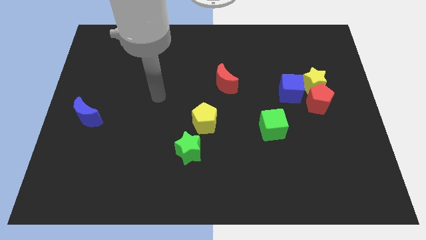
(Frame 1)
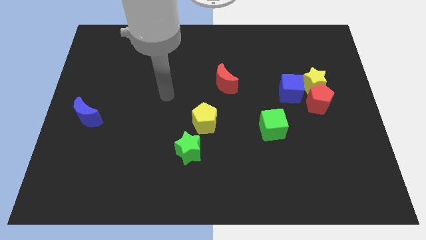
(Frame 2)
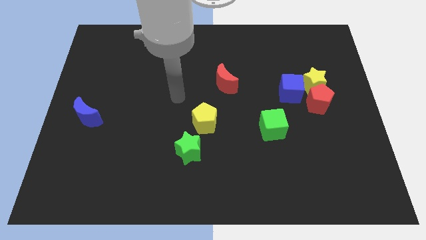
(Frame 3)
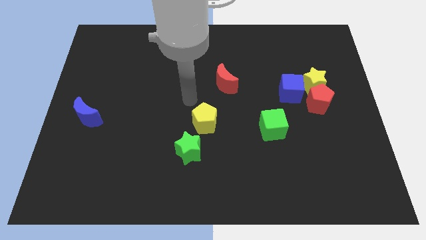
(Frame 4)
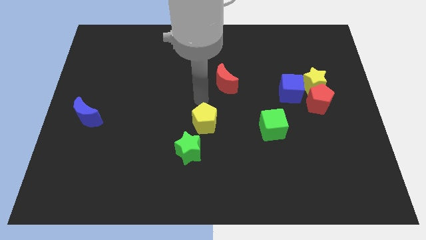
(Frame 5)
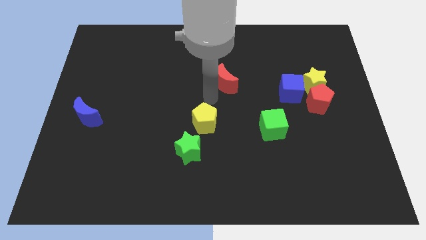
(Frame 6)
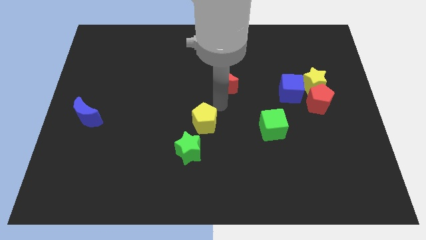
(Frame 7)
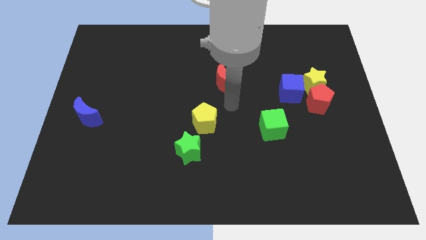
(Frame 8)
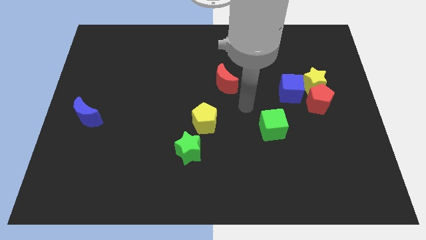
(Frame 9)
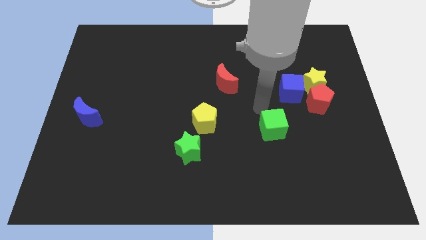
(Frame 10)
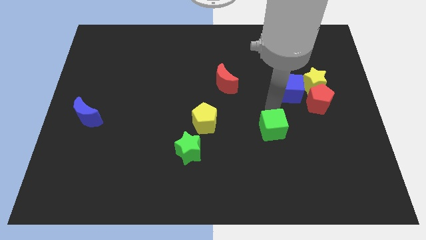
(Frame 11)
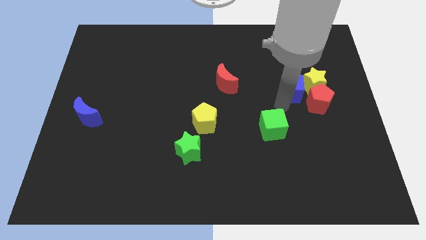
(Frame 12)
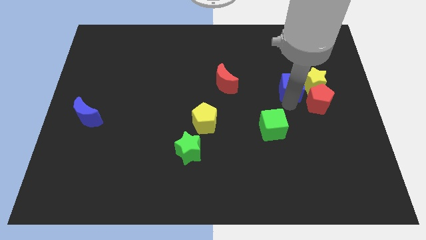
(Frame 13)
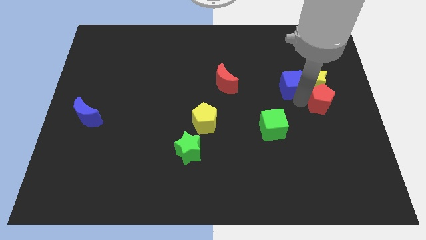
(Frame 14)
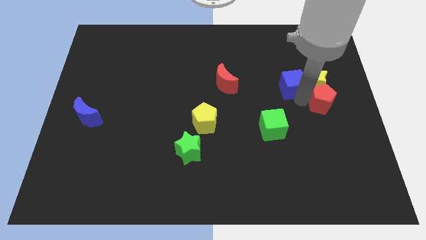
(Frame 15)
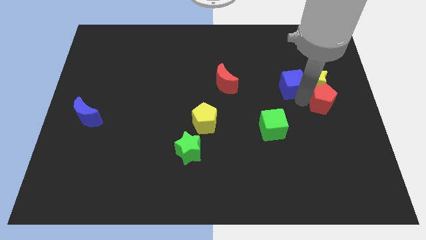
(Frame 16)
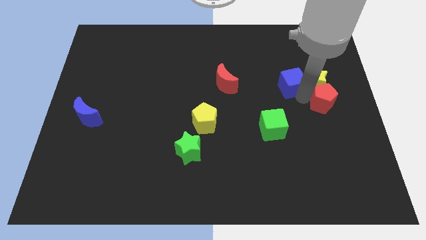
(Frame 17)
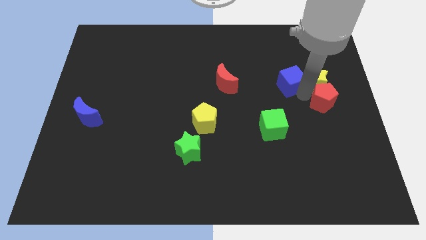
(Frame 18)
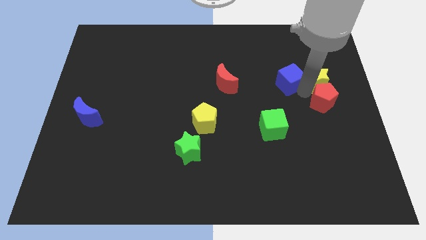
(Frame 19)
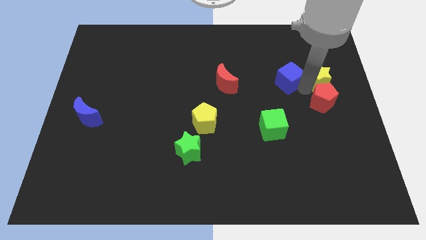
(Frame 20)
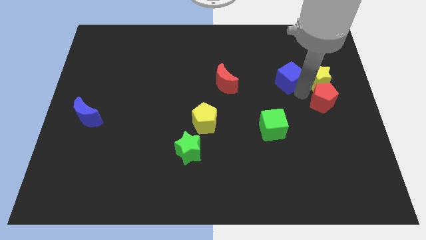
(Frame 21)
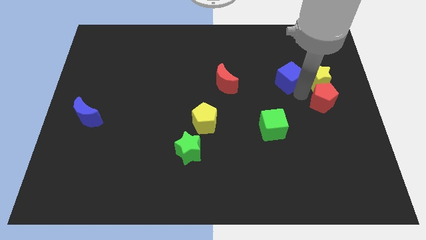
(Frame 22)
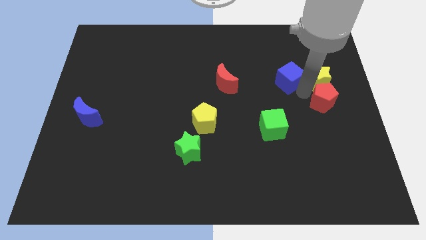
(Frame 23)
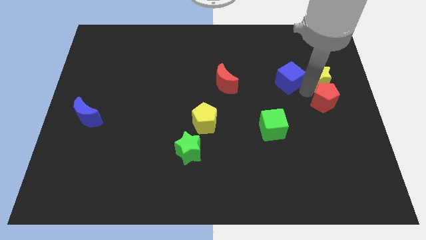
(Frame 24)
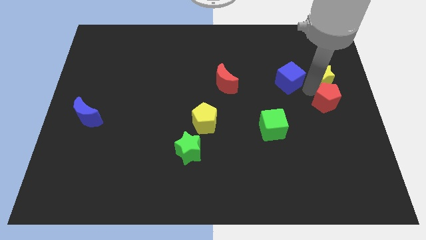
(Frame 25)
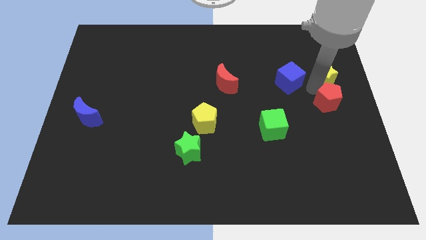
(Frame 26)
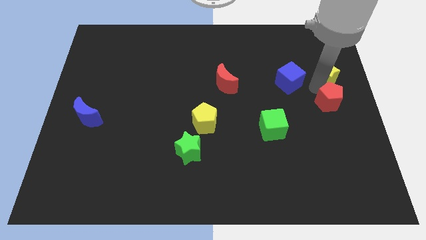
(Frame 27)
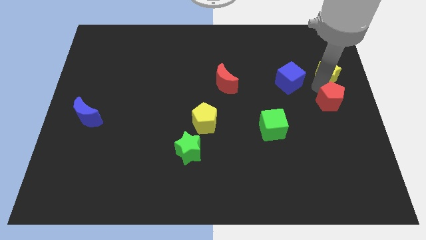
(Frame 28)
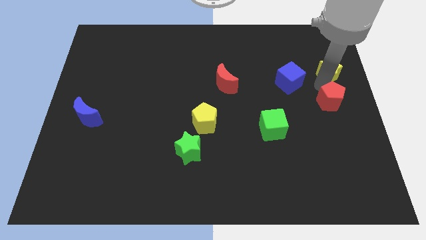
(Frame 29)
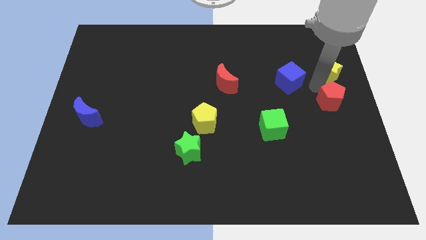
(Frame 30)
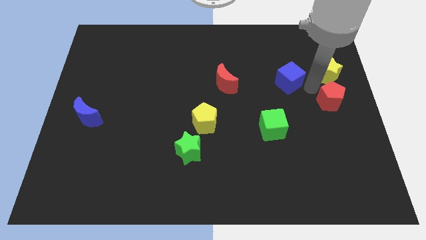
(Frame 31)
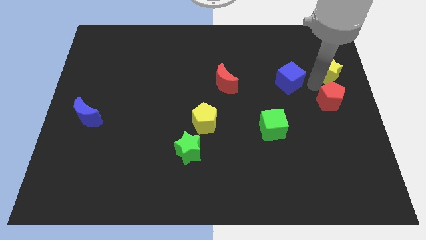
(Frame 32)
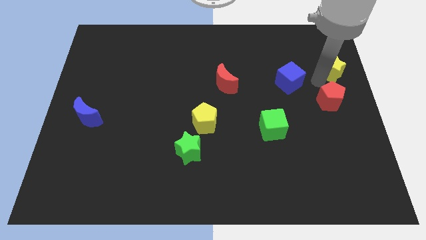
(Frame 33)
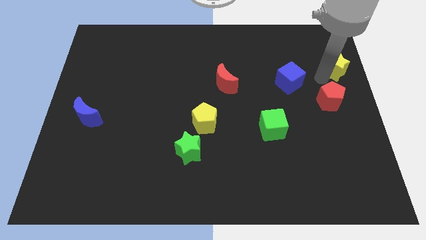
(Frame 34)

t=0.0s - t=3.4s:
pull the yellow star apart from the red pentagon and blue cube

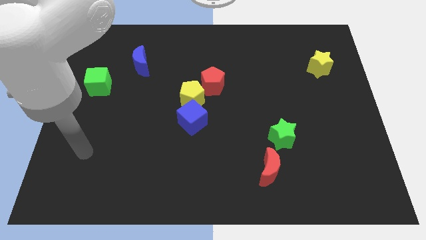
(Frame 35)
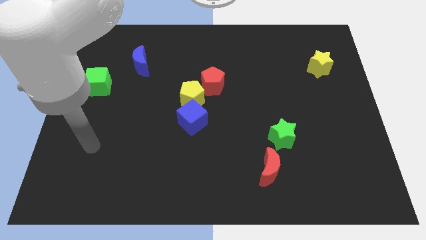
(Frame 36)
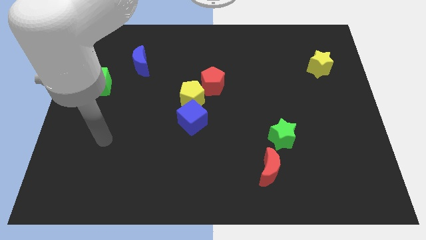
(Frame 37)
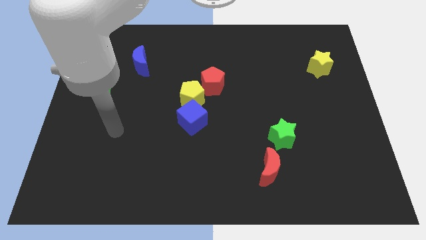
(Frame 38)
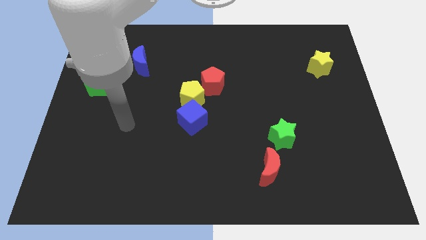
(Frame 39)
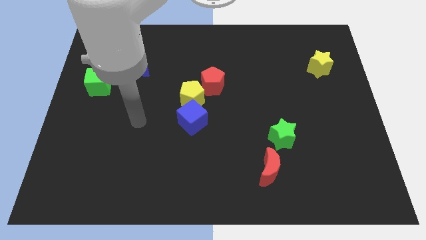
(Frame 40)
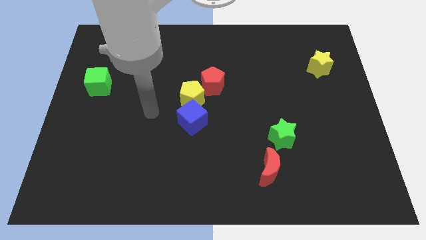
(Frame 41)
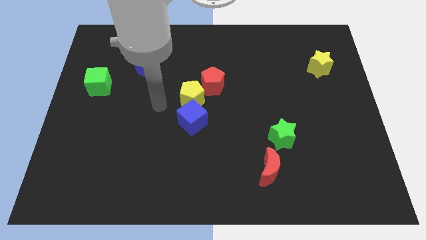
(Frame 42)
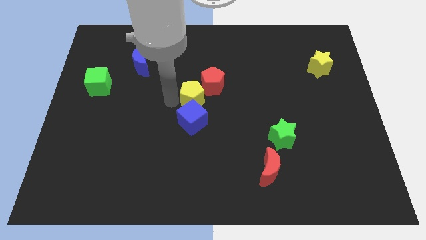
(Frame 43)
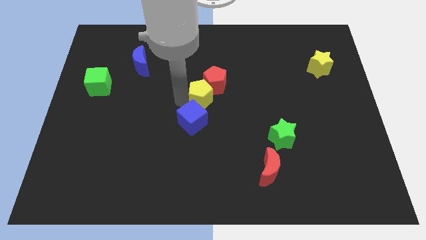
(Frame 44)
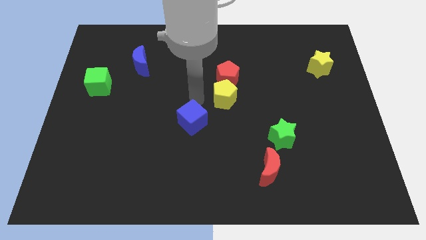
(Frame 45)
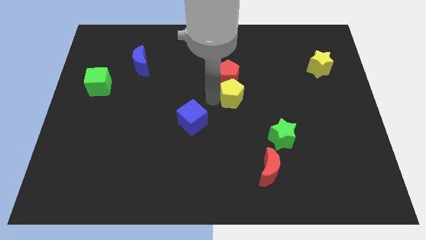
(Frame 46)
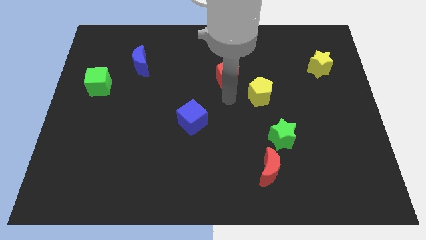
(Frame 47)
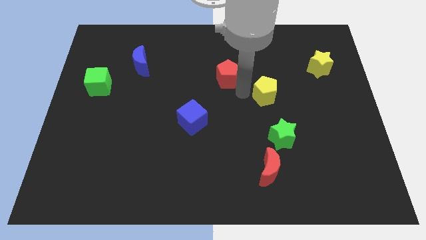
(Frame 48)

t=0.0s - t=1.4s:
pull the red pentagon apart from the yellow pentagon

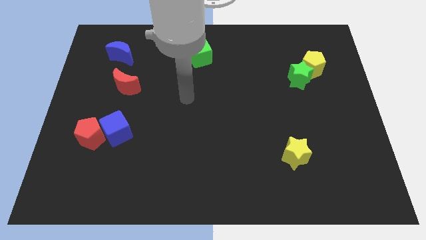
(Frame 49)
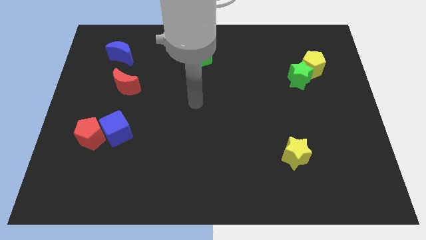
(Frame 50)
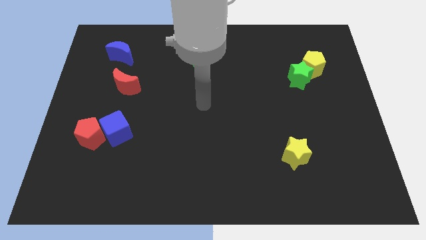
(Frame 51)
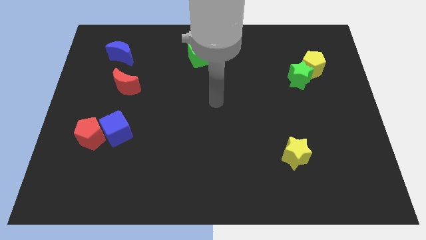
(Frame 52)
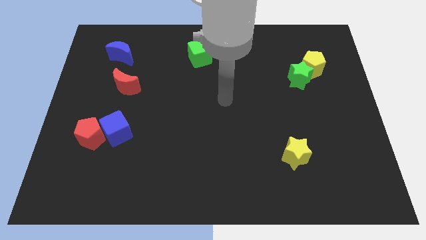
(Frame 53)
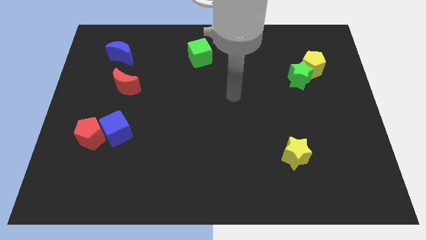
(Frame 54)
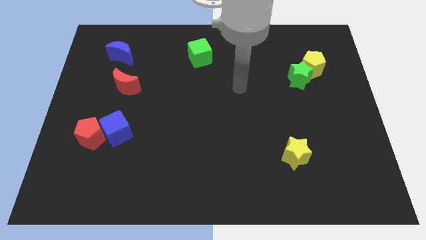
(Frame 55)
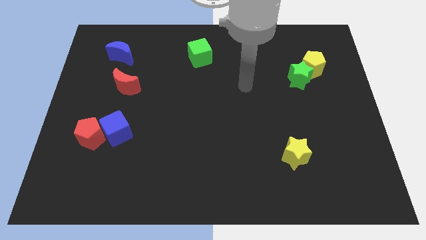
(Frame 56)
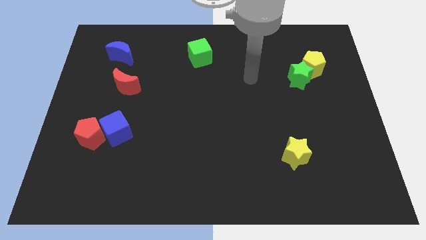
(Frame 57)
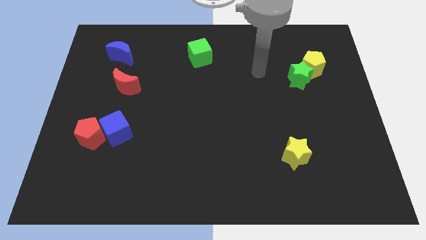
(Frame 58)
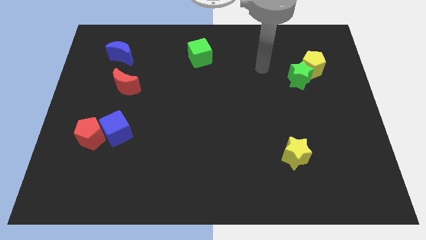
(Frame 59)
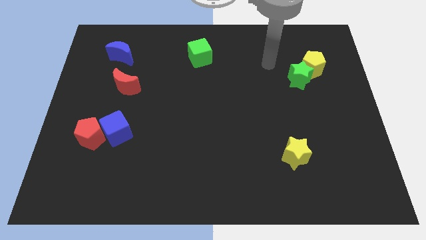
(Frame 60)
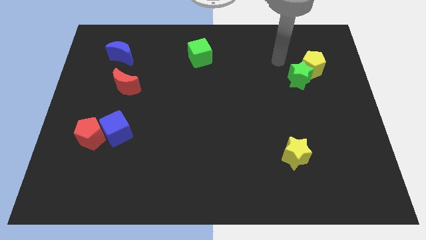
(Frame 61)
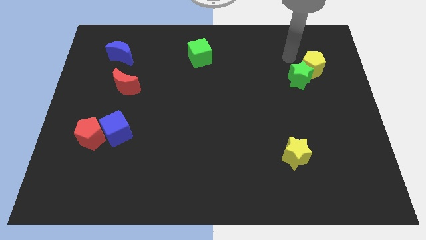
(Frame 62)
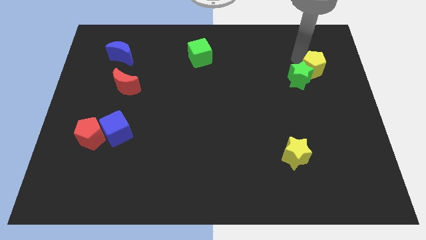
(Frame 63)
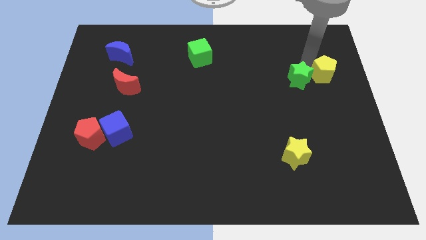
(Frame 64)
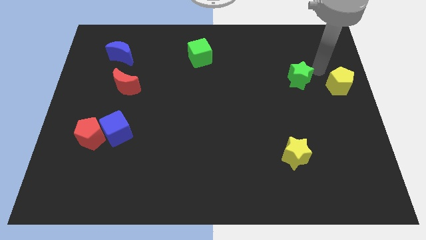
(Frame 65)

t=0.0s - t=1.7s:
pull the green star apart from the yellow pentagon

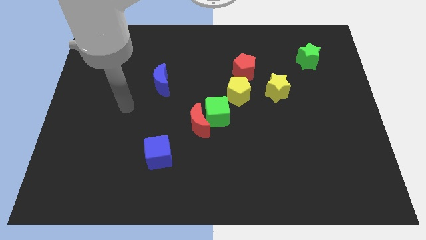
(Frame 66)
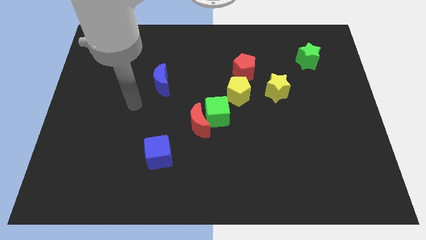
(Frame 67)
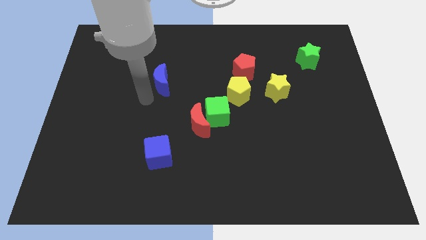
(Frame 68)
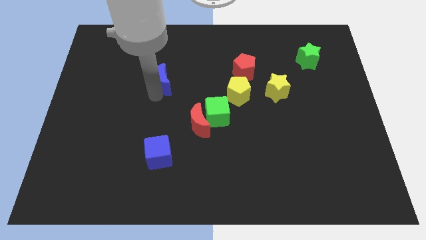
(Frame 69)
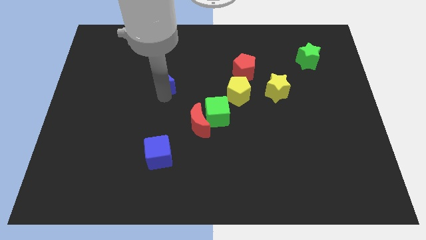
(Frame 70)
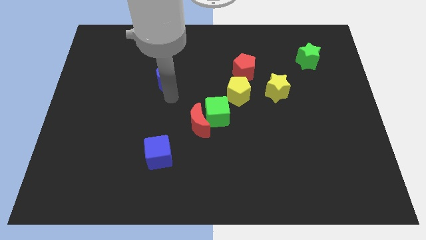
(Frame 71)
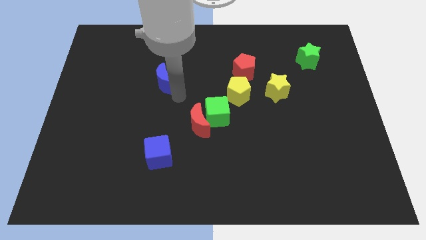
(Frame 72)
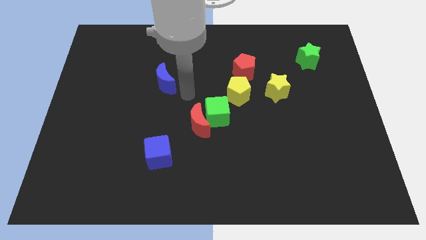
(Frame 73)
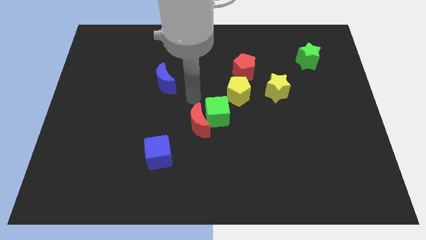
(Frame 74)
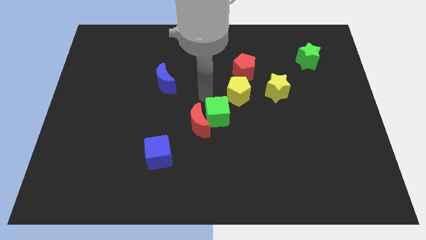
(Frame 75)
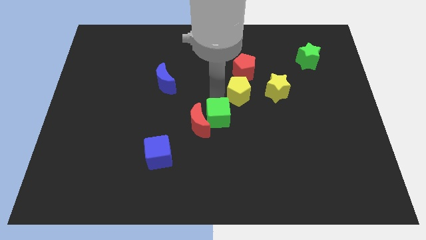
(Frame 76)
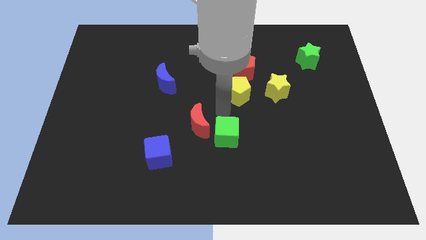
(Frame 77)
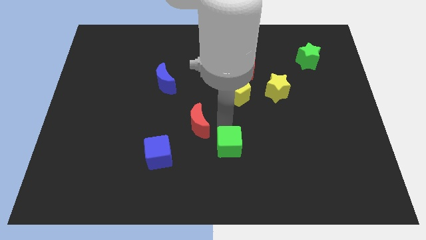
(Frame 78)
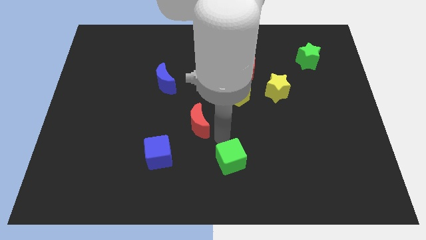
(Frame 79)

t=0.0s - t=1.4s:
pull the red moon apart from the green cube

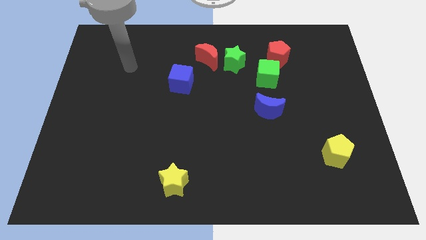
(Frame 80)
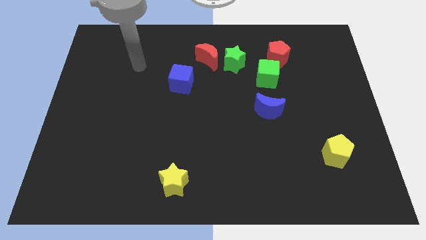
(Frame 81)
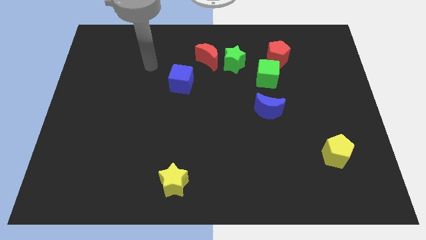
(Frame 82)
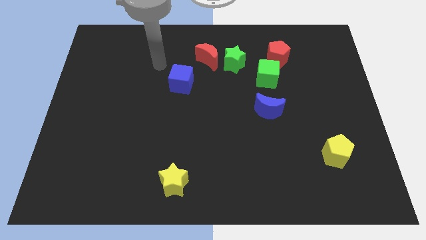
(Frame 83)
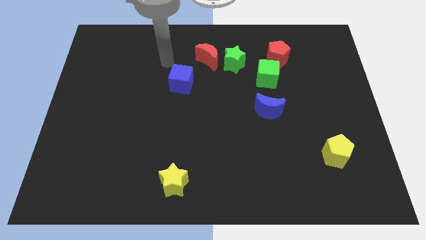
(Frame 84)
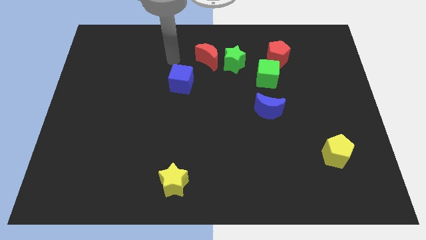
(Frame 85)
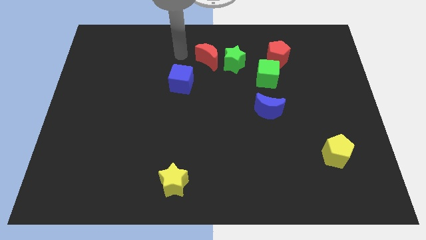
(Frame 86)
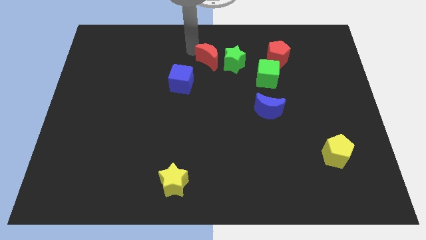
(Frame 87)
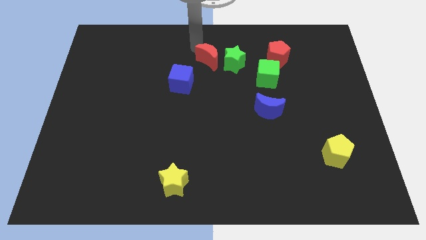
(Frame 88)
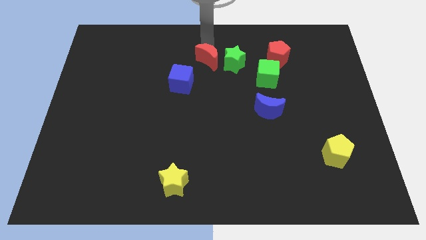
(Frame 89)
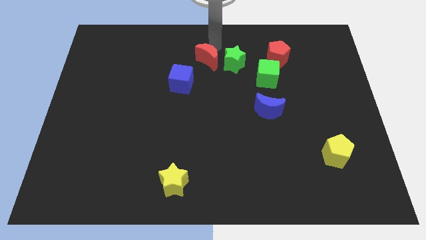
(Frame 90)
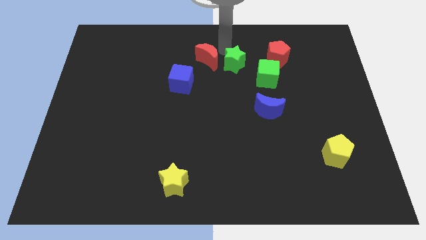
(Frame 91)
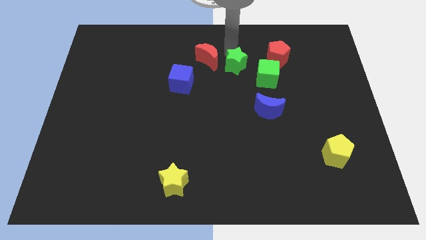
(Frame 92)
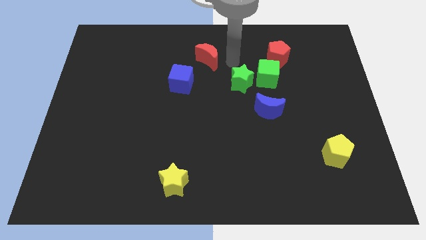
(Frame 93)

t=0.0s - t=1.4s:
move the red moon away from the green star
